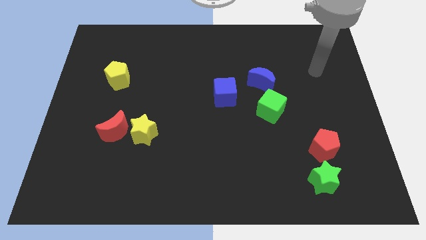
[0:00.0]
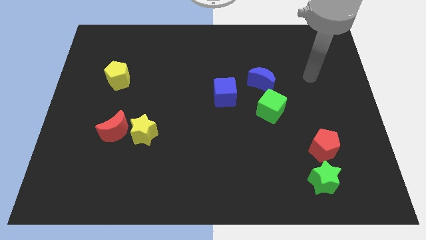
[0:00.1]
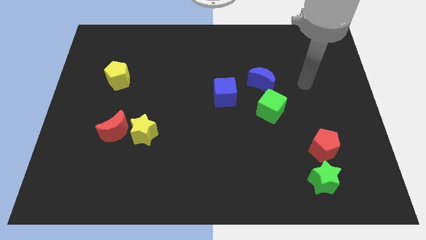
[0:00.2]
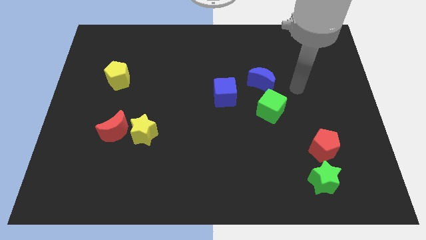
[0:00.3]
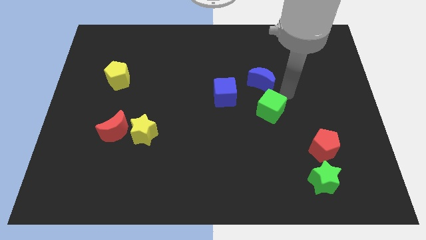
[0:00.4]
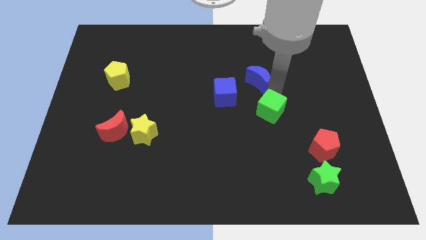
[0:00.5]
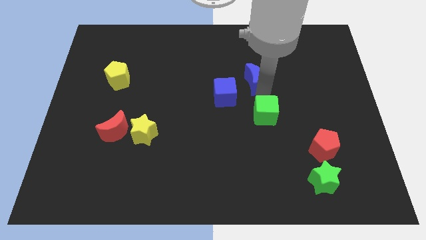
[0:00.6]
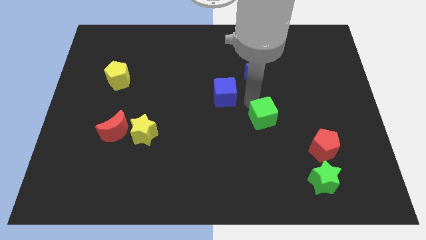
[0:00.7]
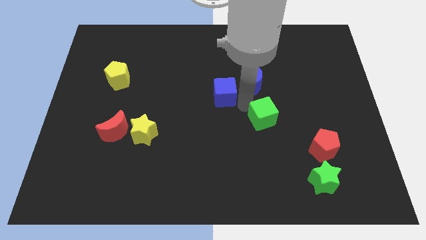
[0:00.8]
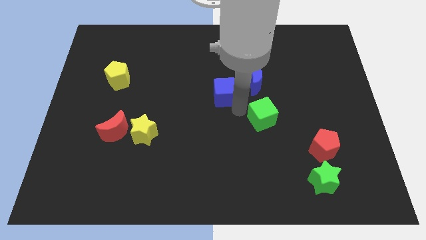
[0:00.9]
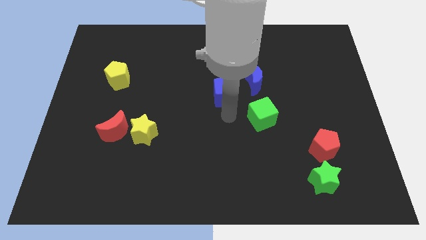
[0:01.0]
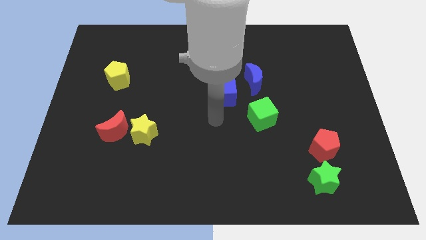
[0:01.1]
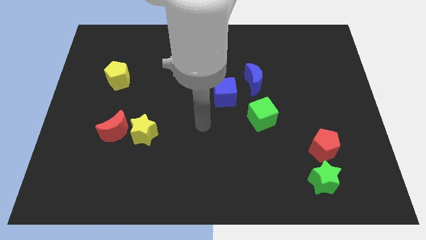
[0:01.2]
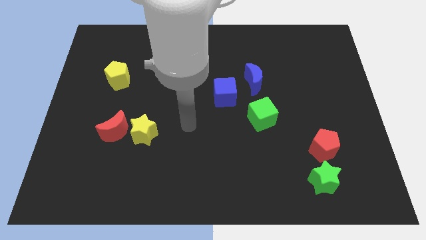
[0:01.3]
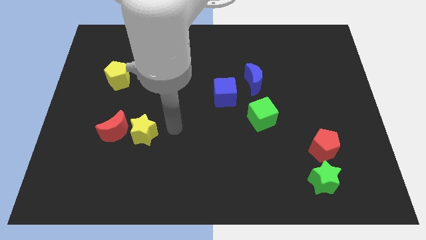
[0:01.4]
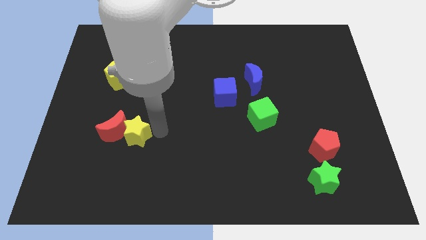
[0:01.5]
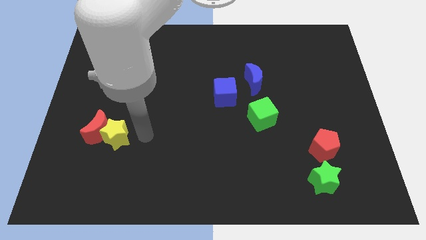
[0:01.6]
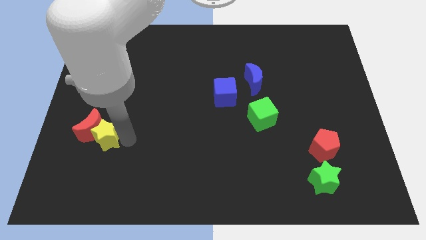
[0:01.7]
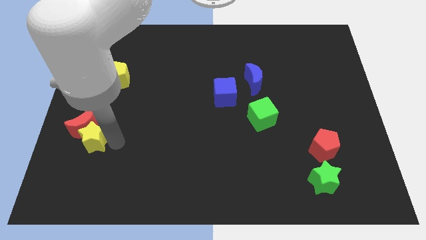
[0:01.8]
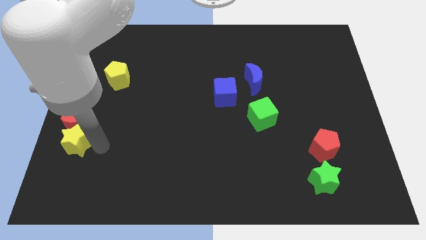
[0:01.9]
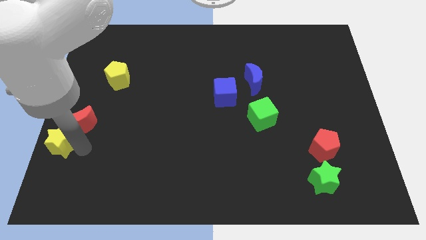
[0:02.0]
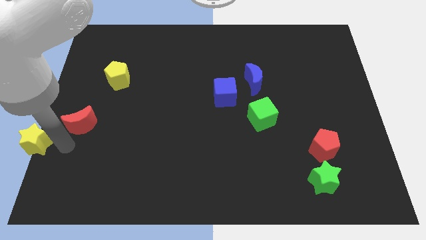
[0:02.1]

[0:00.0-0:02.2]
move the red moon away from the yellow star

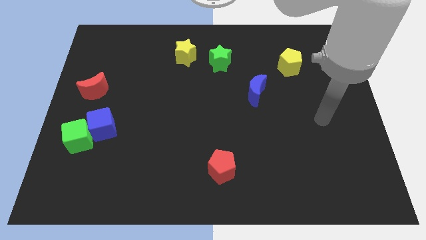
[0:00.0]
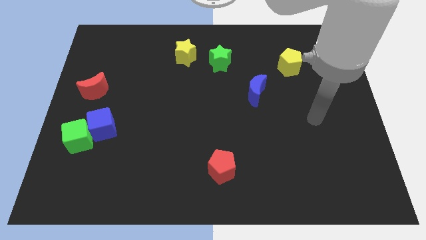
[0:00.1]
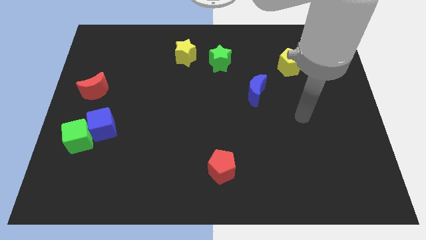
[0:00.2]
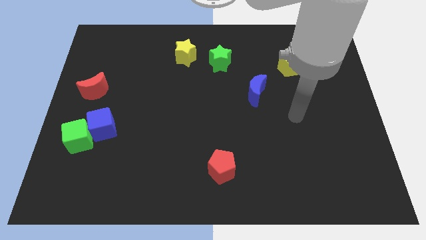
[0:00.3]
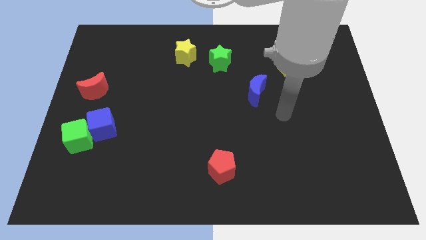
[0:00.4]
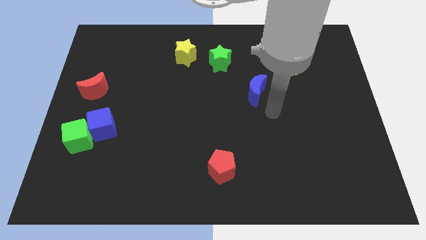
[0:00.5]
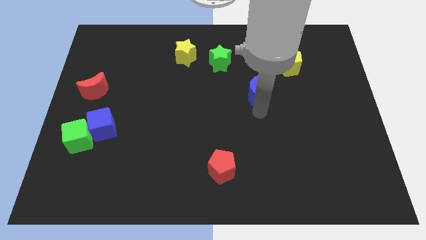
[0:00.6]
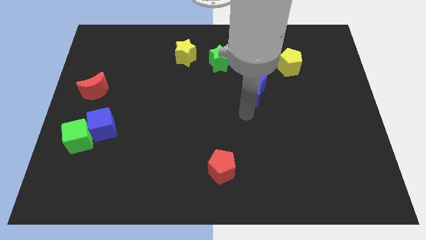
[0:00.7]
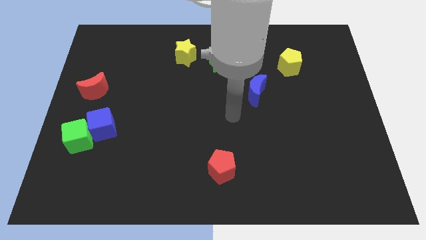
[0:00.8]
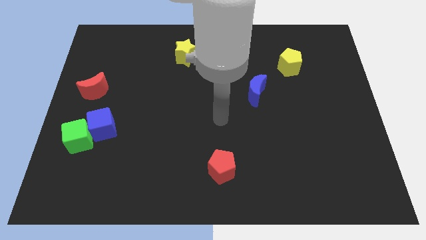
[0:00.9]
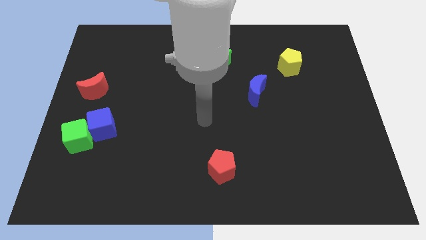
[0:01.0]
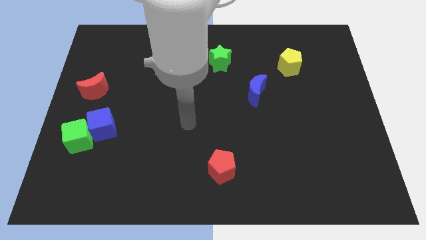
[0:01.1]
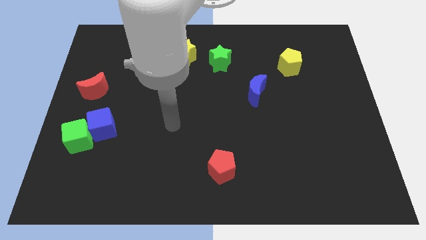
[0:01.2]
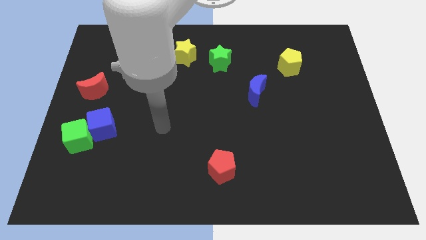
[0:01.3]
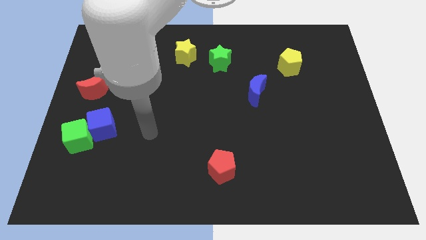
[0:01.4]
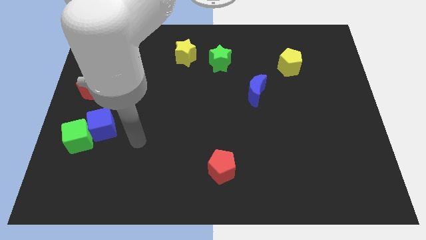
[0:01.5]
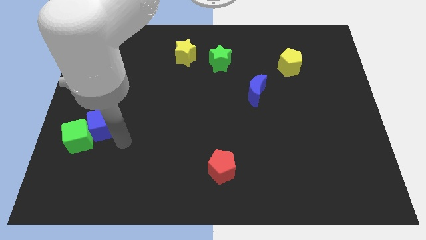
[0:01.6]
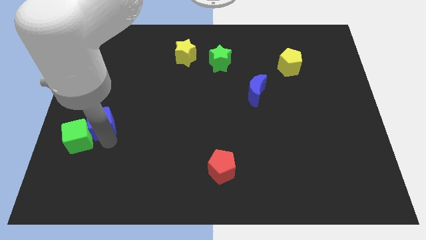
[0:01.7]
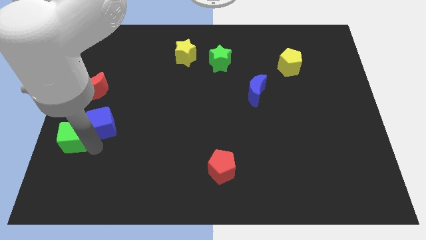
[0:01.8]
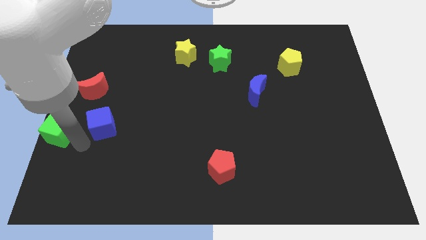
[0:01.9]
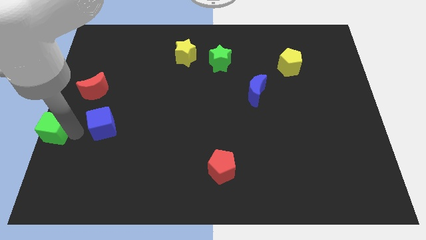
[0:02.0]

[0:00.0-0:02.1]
separate the blue cube from the green cube

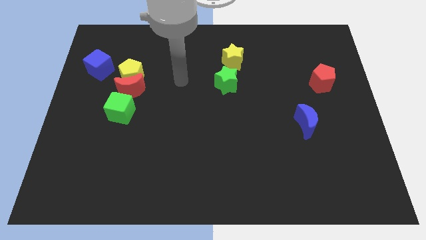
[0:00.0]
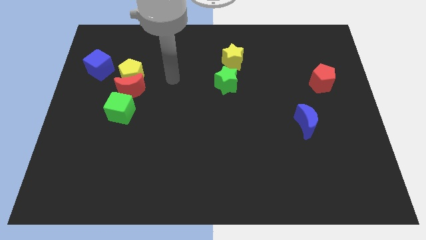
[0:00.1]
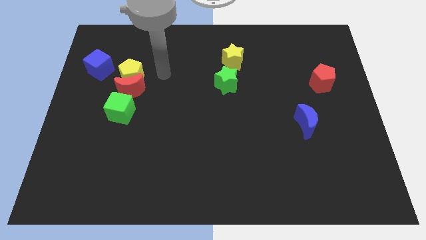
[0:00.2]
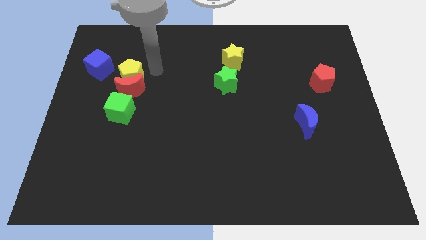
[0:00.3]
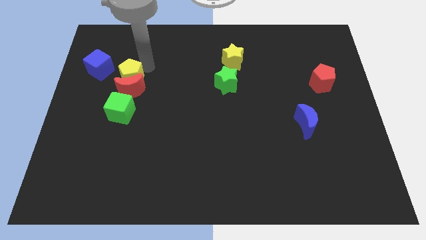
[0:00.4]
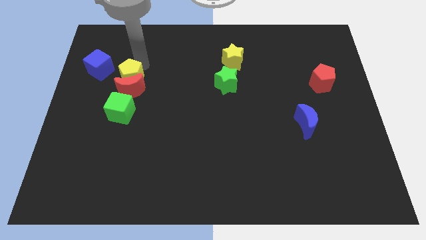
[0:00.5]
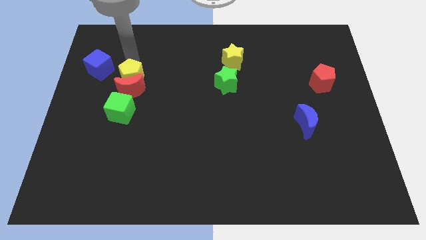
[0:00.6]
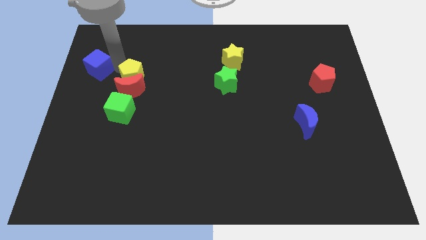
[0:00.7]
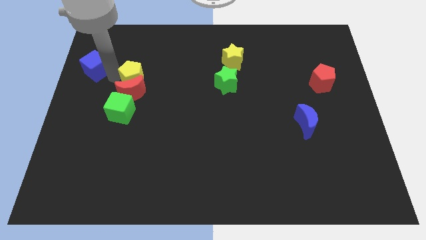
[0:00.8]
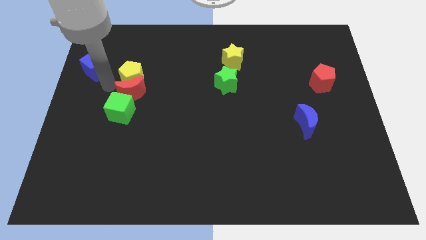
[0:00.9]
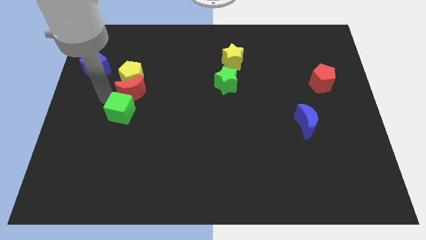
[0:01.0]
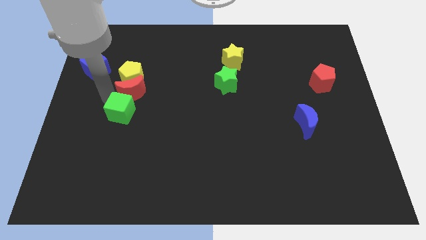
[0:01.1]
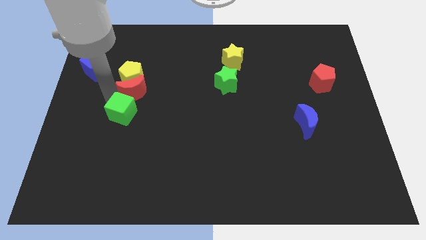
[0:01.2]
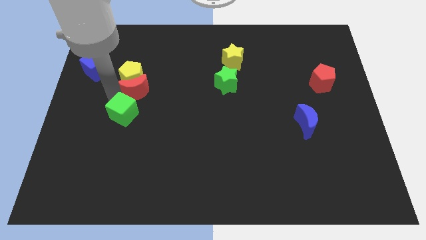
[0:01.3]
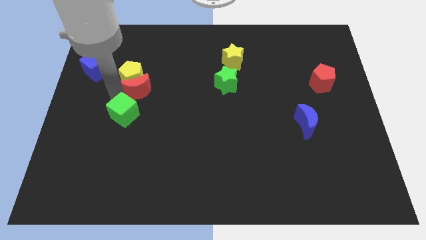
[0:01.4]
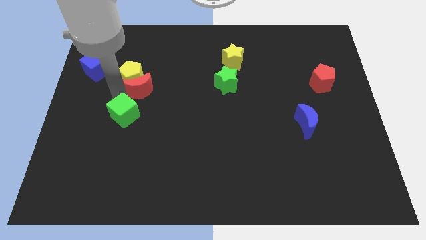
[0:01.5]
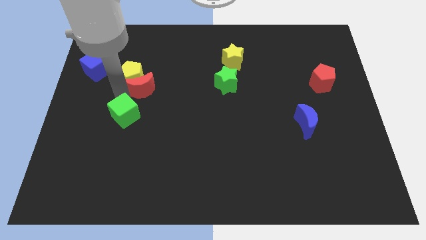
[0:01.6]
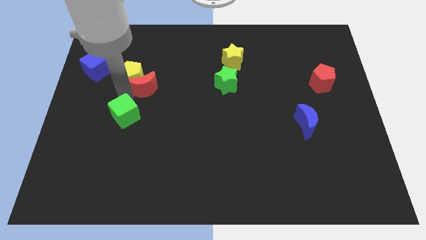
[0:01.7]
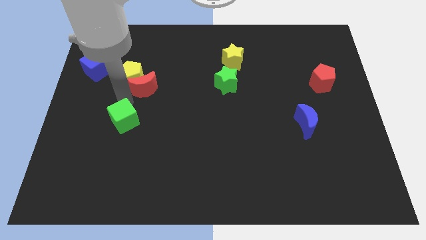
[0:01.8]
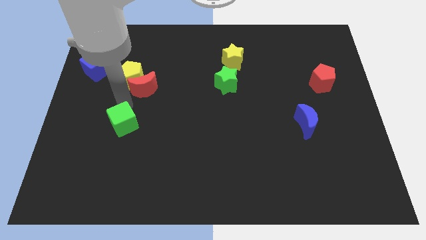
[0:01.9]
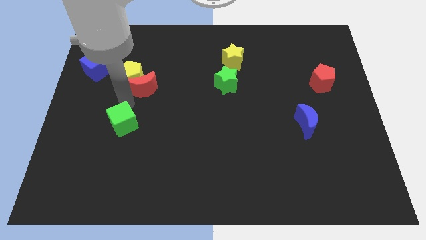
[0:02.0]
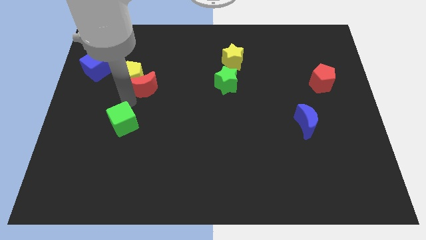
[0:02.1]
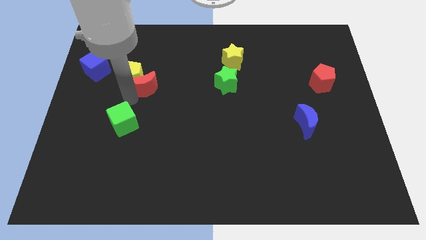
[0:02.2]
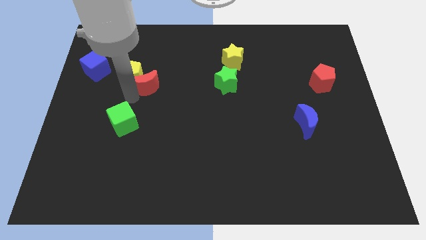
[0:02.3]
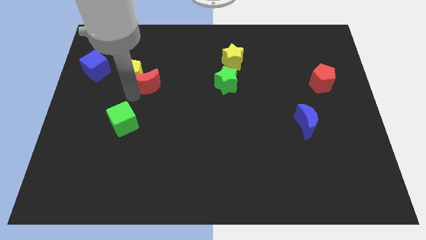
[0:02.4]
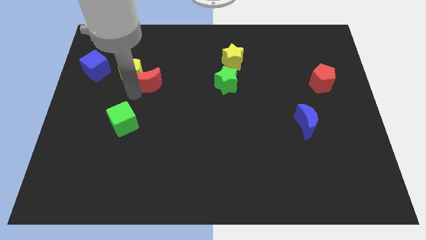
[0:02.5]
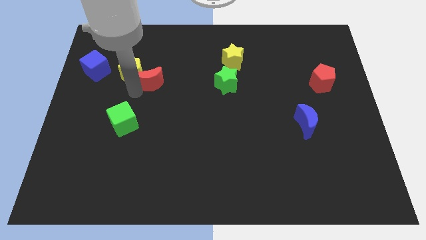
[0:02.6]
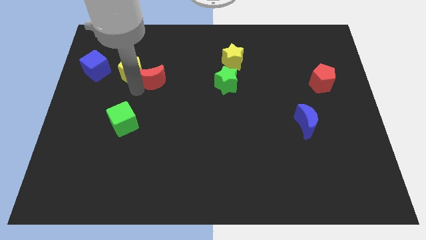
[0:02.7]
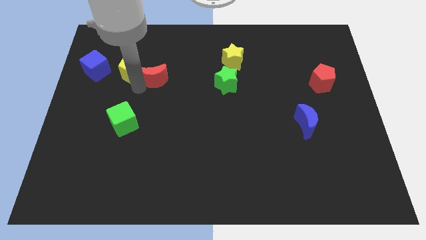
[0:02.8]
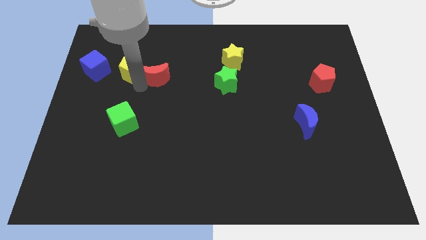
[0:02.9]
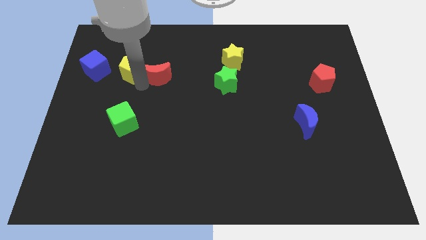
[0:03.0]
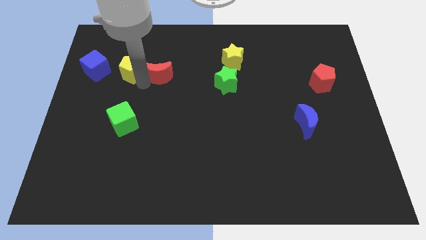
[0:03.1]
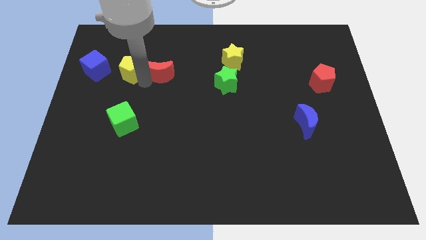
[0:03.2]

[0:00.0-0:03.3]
pull the red moon apart from the yellow pentagon and green cube

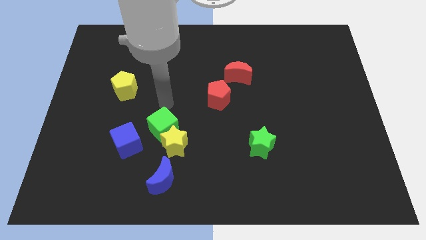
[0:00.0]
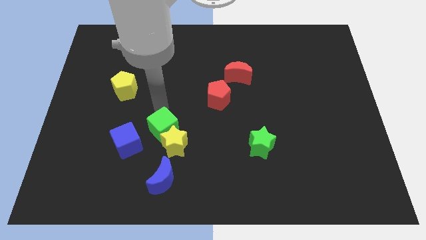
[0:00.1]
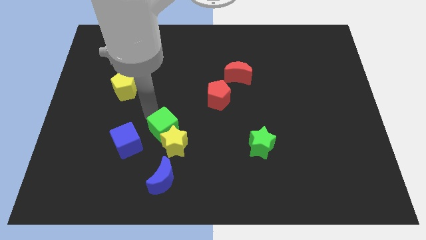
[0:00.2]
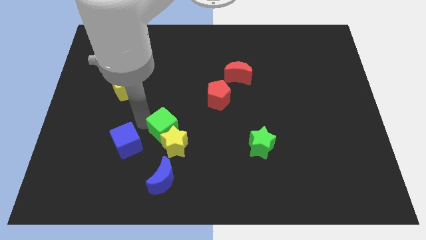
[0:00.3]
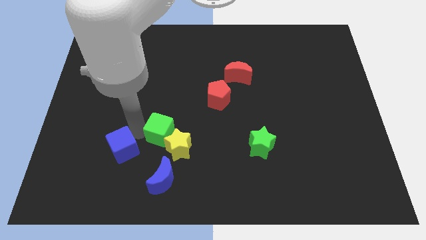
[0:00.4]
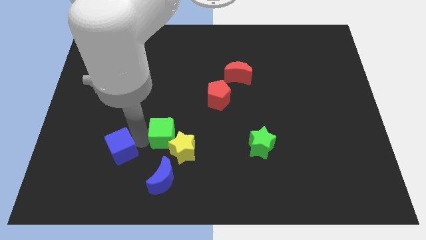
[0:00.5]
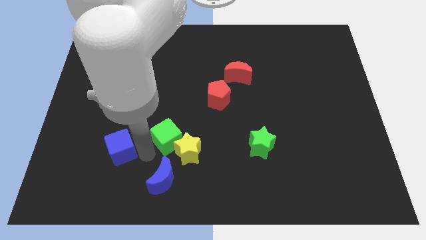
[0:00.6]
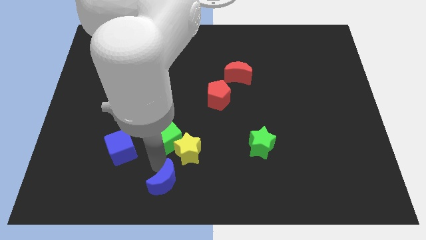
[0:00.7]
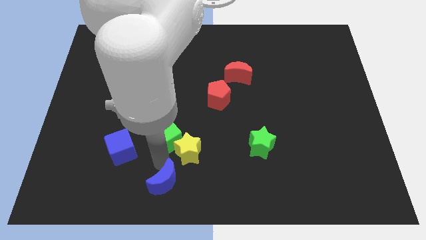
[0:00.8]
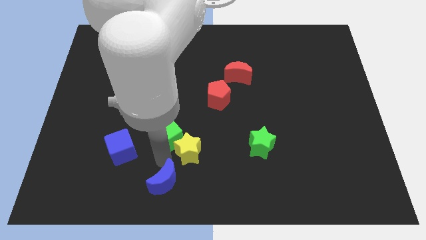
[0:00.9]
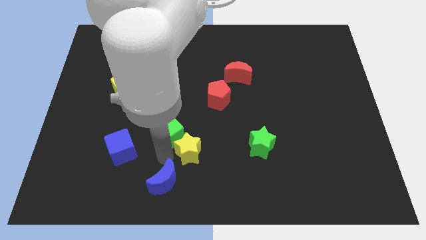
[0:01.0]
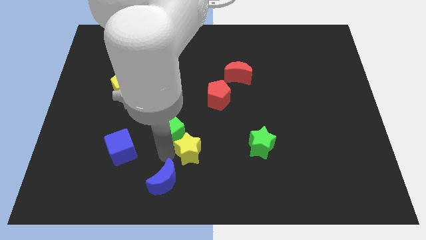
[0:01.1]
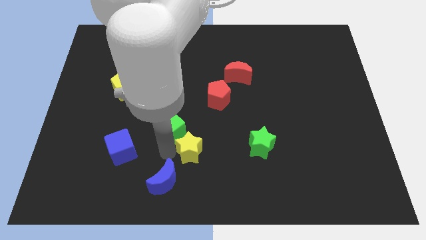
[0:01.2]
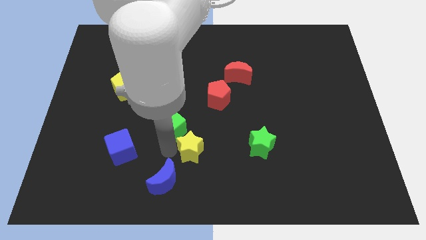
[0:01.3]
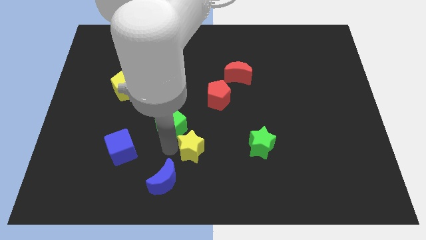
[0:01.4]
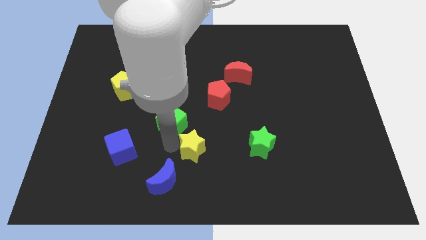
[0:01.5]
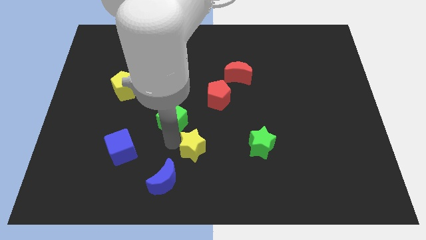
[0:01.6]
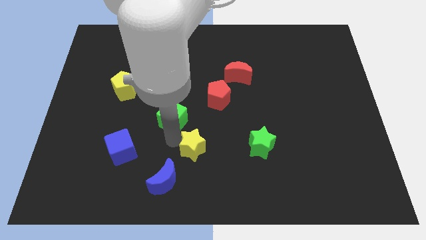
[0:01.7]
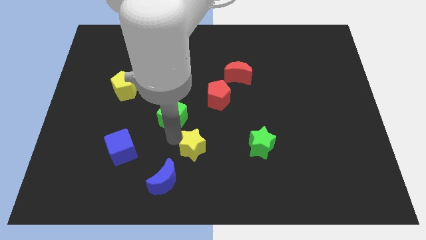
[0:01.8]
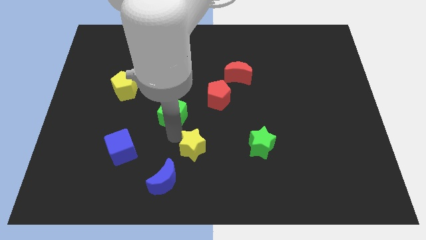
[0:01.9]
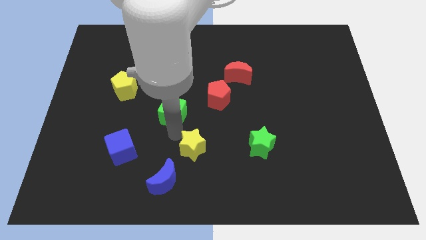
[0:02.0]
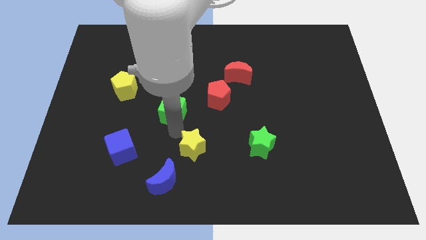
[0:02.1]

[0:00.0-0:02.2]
pull the green cube apart from the yellow star and blue cube
